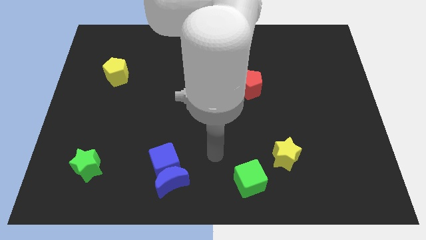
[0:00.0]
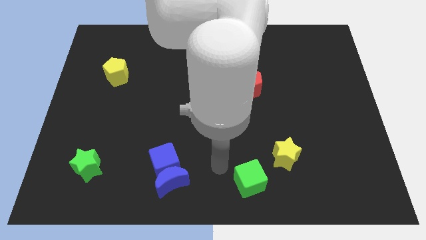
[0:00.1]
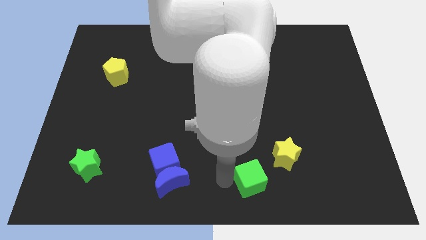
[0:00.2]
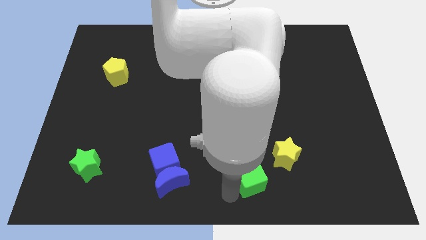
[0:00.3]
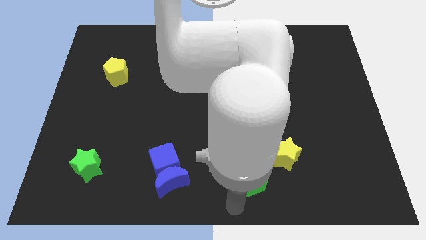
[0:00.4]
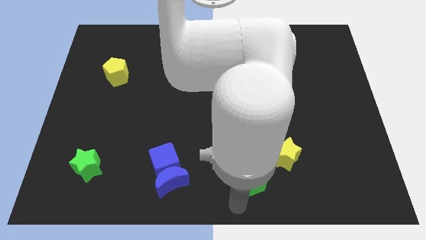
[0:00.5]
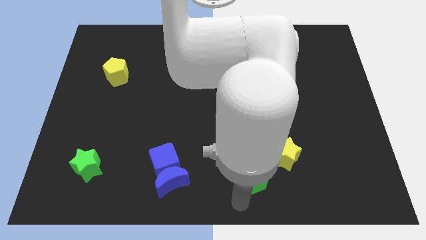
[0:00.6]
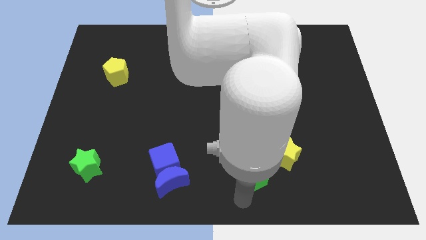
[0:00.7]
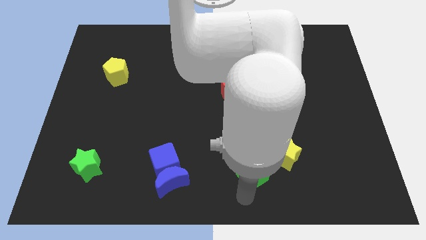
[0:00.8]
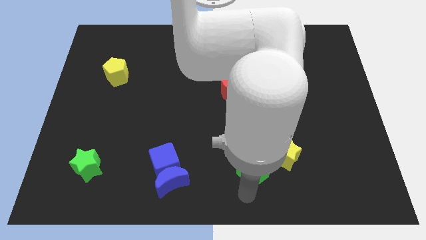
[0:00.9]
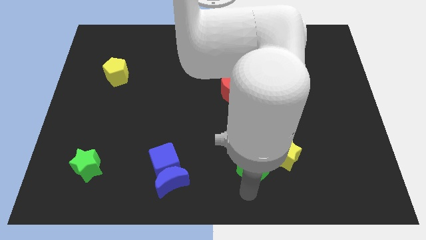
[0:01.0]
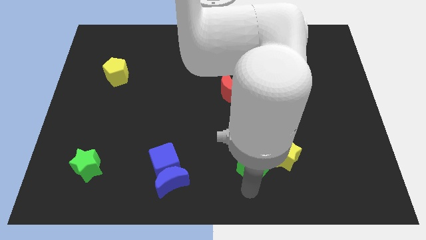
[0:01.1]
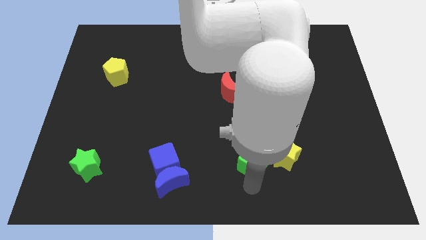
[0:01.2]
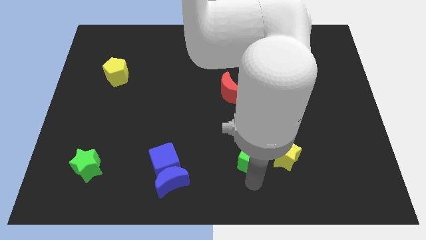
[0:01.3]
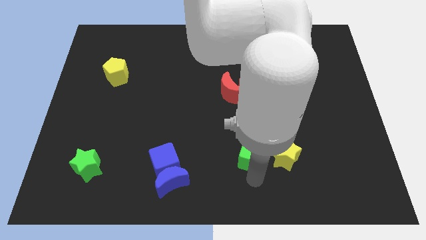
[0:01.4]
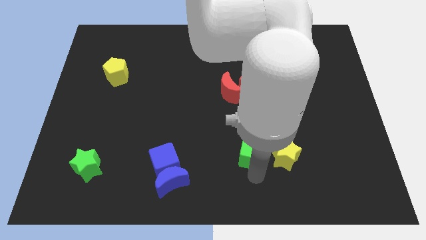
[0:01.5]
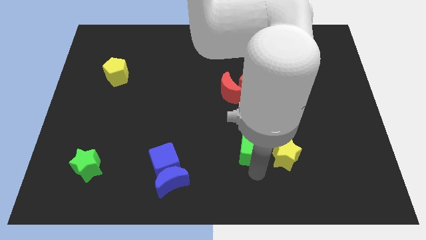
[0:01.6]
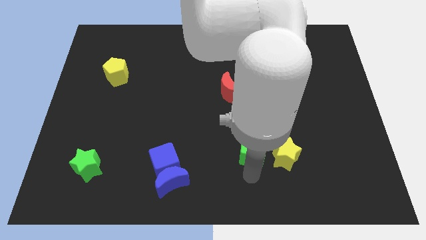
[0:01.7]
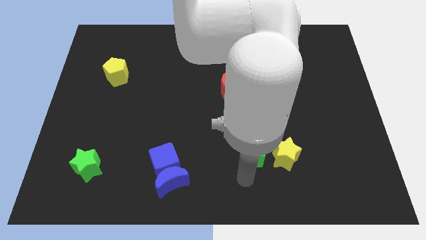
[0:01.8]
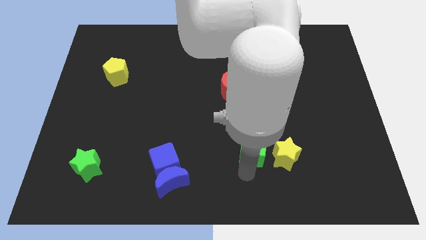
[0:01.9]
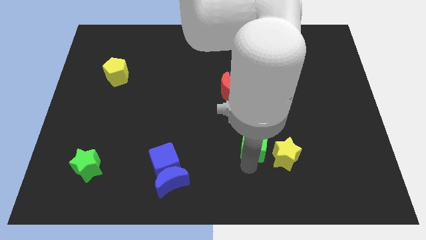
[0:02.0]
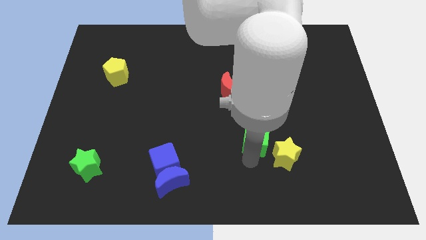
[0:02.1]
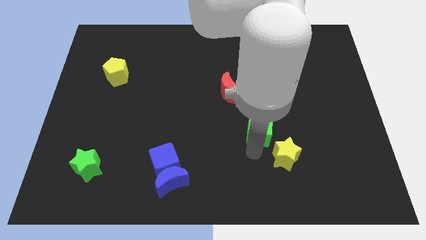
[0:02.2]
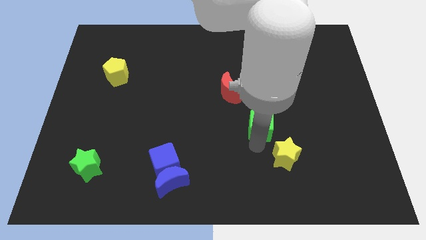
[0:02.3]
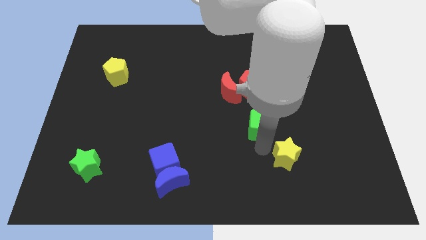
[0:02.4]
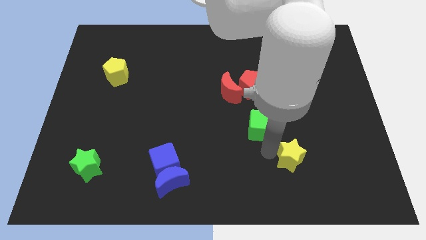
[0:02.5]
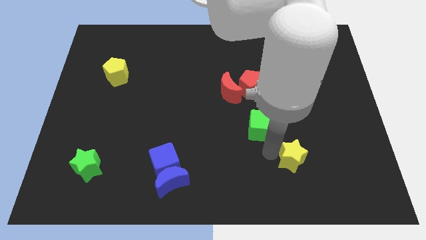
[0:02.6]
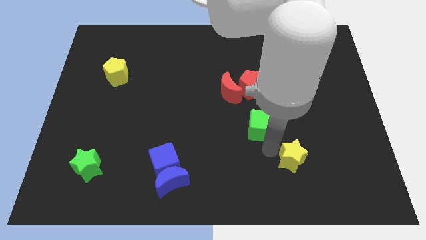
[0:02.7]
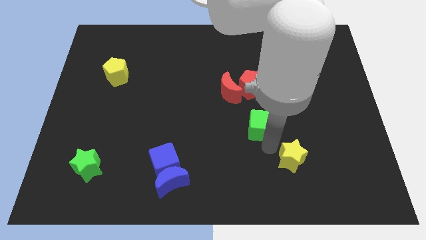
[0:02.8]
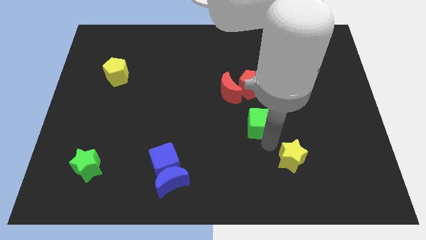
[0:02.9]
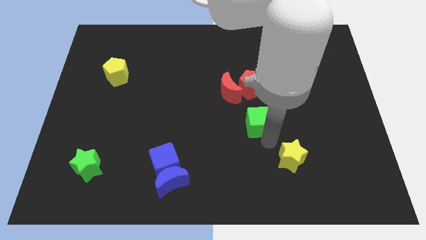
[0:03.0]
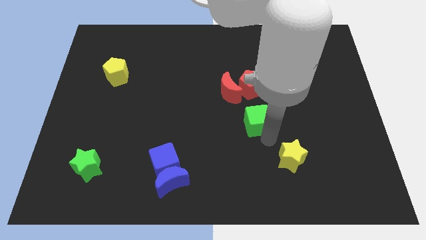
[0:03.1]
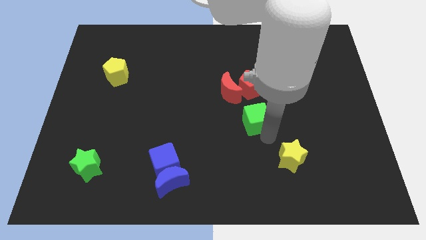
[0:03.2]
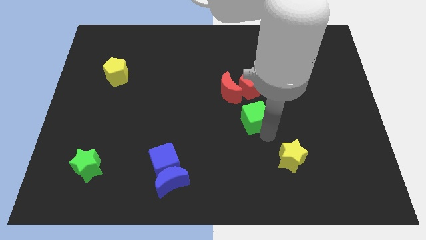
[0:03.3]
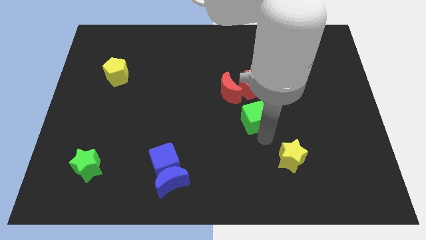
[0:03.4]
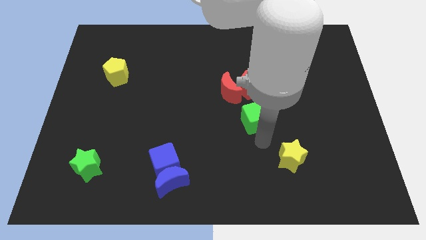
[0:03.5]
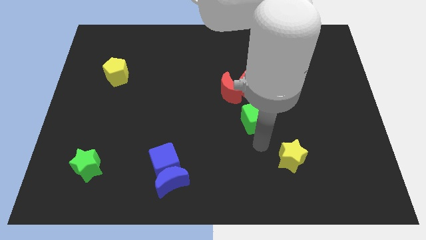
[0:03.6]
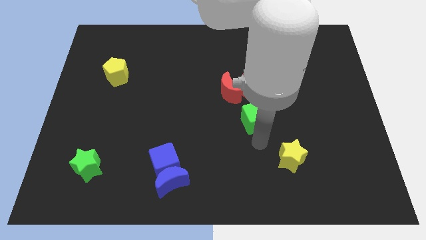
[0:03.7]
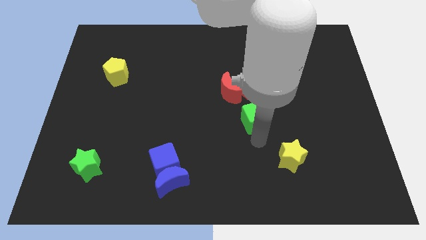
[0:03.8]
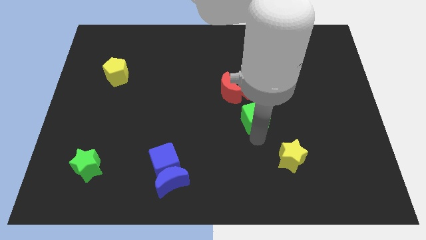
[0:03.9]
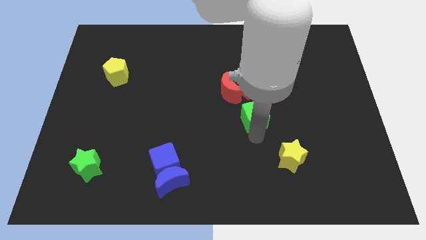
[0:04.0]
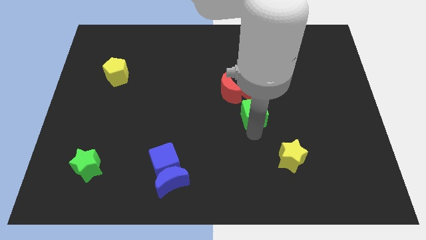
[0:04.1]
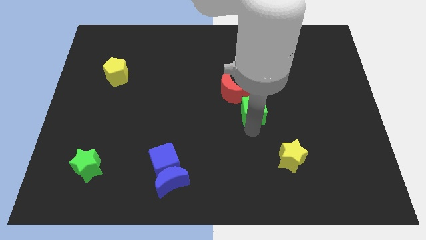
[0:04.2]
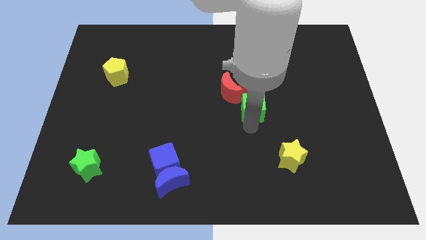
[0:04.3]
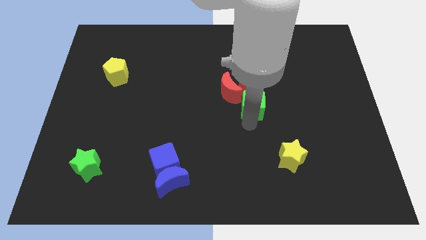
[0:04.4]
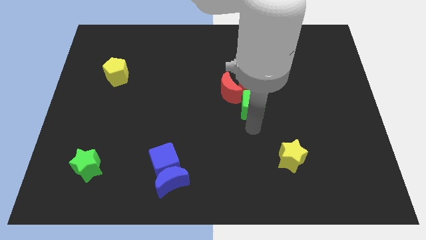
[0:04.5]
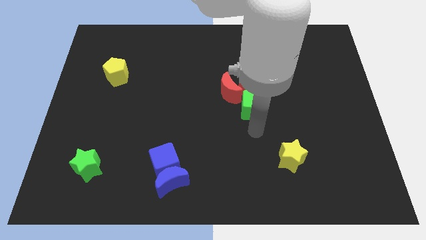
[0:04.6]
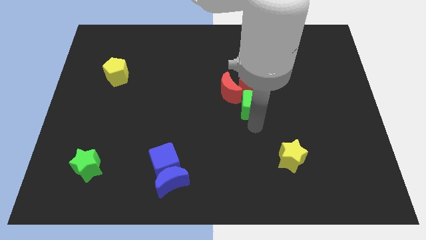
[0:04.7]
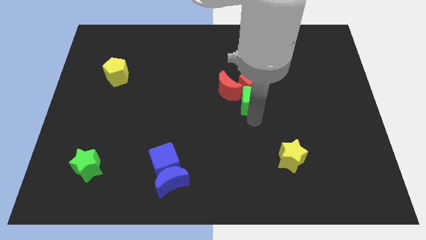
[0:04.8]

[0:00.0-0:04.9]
move the green cube next to the red pentagon

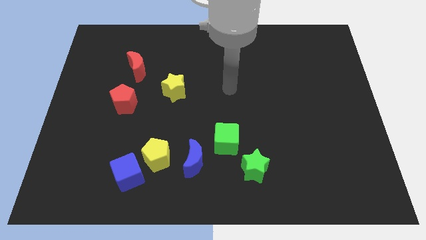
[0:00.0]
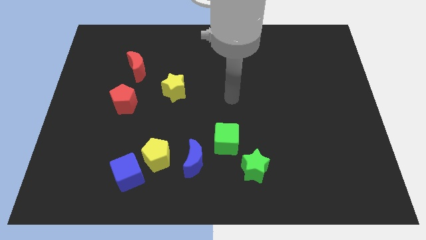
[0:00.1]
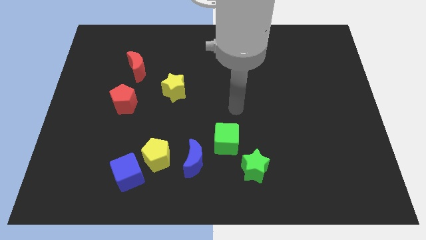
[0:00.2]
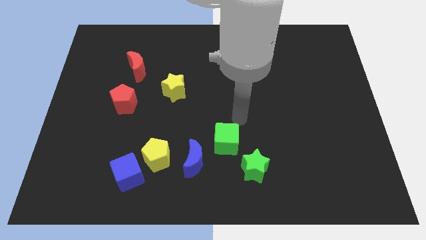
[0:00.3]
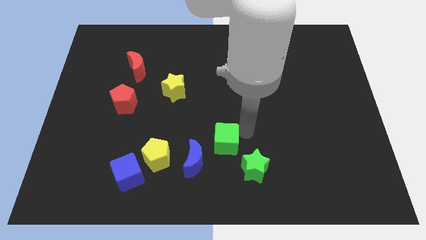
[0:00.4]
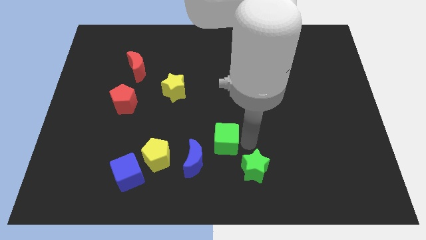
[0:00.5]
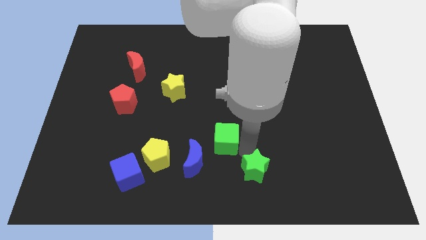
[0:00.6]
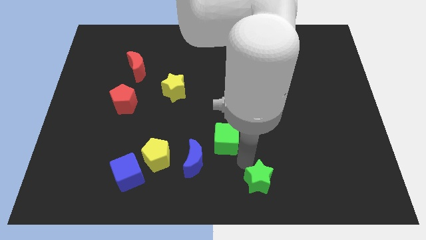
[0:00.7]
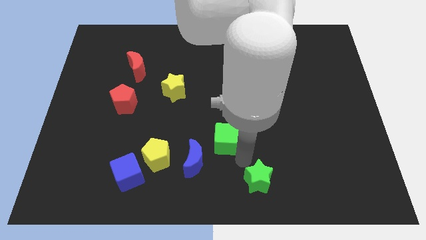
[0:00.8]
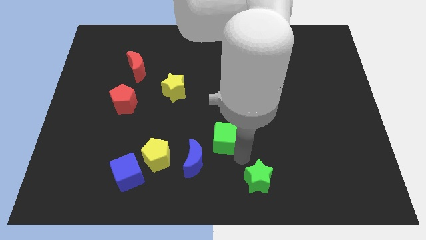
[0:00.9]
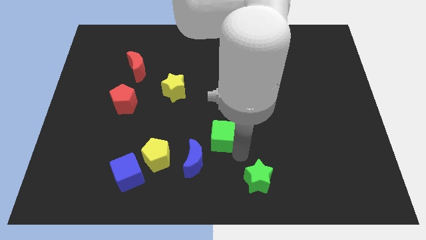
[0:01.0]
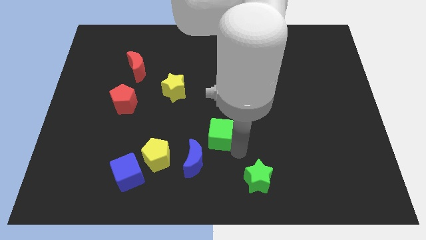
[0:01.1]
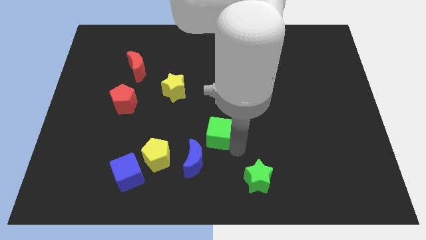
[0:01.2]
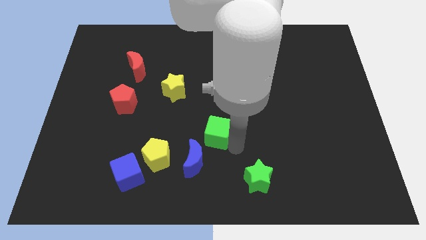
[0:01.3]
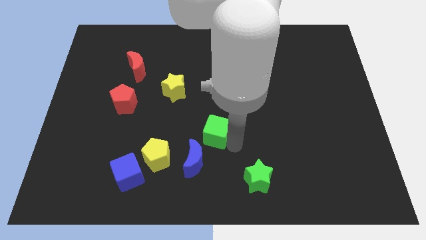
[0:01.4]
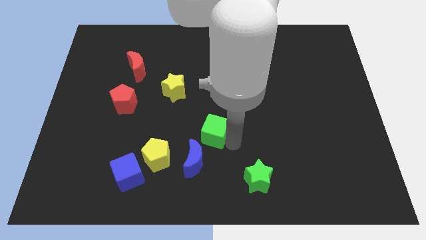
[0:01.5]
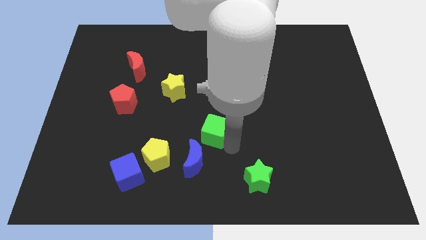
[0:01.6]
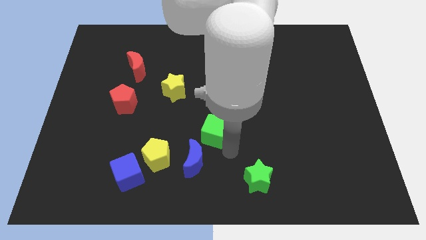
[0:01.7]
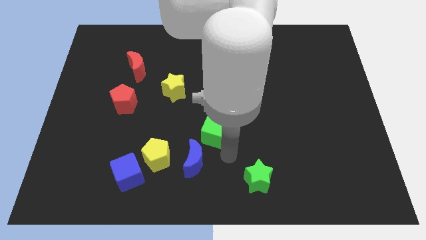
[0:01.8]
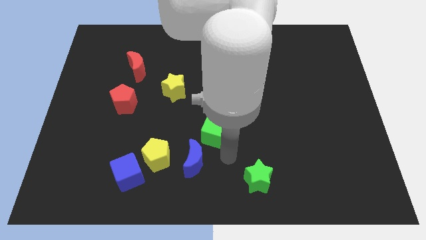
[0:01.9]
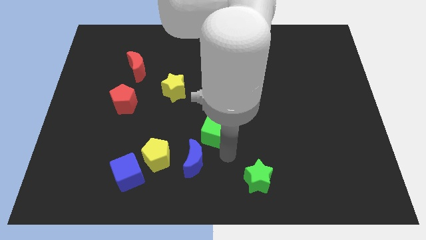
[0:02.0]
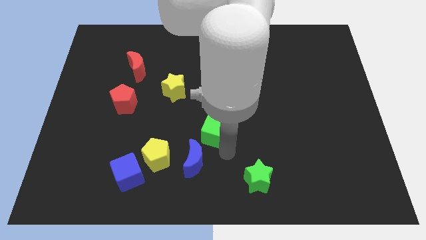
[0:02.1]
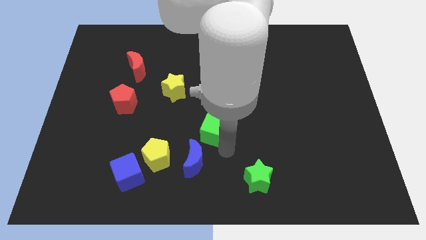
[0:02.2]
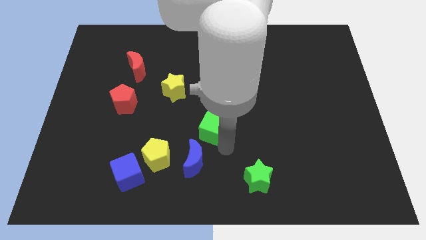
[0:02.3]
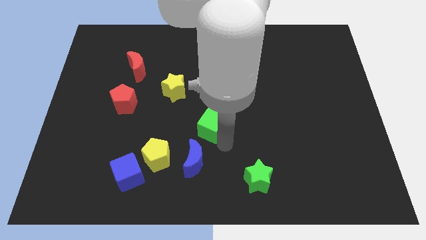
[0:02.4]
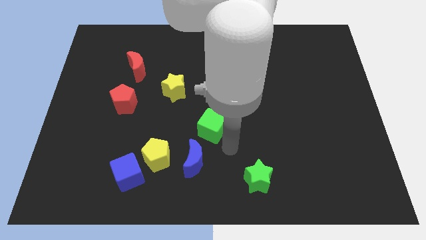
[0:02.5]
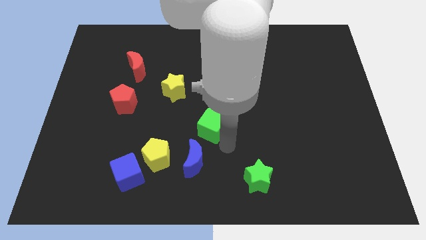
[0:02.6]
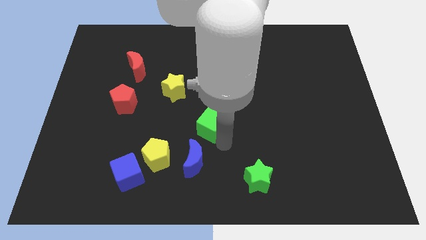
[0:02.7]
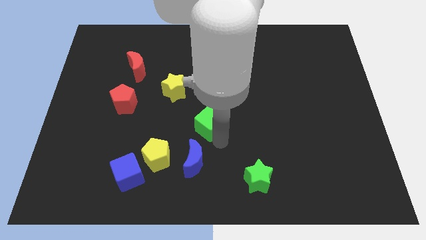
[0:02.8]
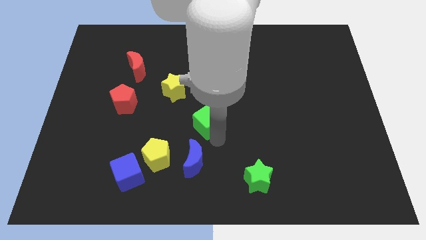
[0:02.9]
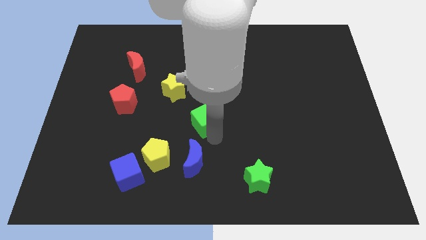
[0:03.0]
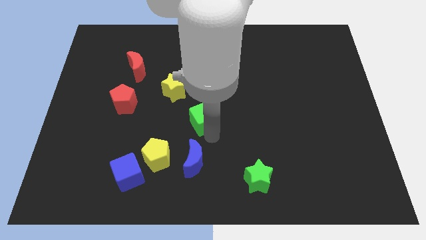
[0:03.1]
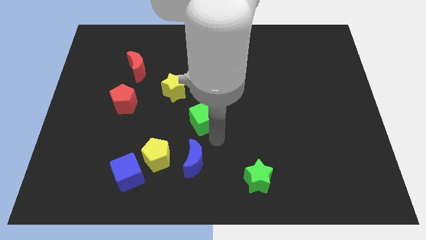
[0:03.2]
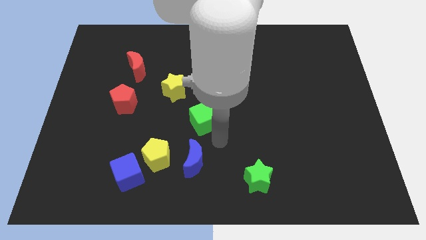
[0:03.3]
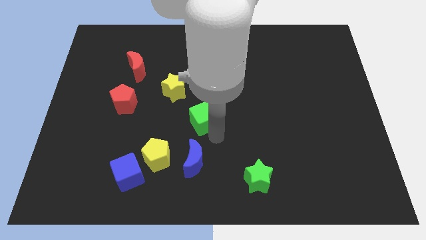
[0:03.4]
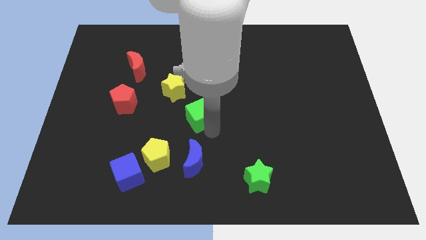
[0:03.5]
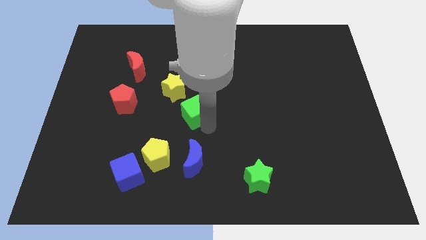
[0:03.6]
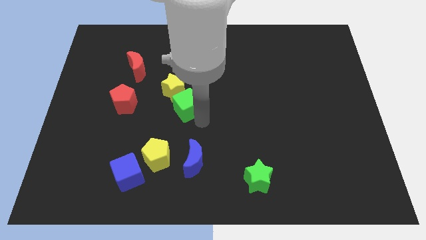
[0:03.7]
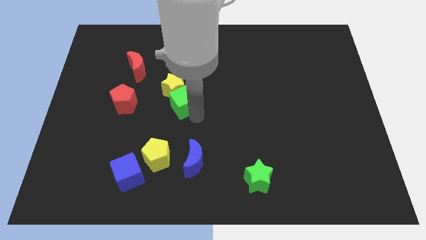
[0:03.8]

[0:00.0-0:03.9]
slide the green cube to the yellow star
